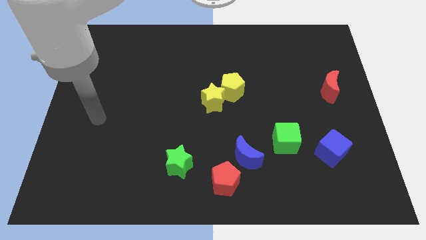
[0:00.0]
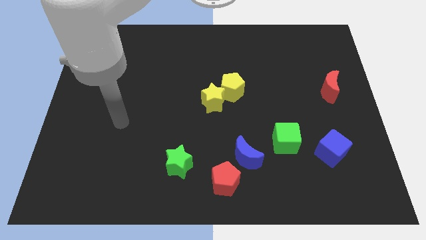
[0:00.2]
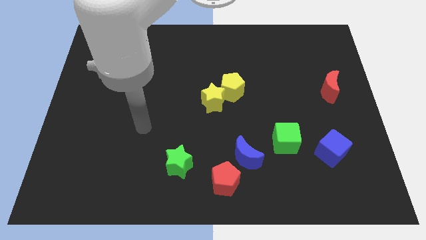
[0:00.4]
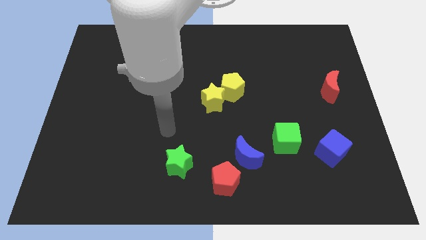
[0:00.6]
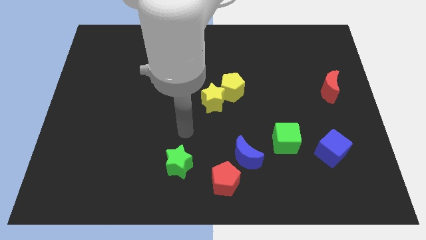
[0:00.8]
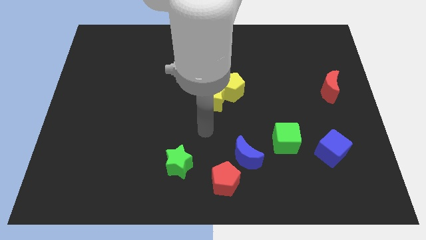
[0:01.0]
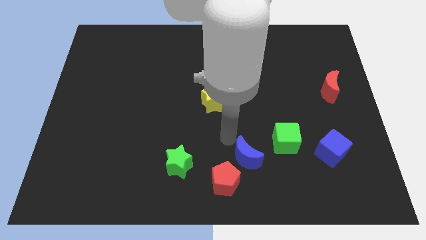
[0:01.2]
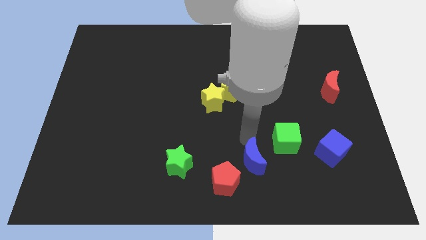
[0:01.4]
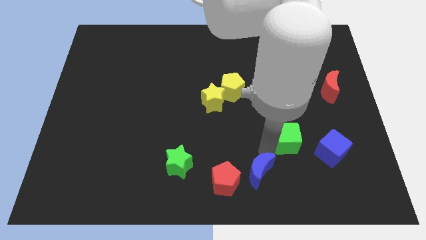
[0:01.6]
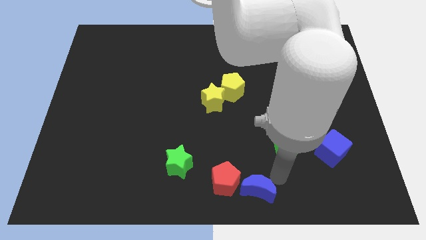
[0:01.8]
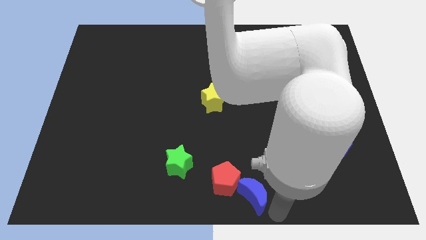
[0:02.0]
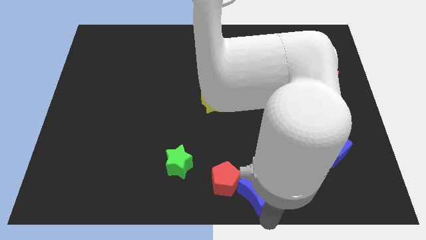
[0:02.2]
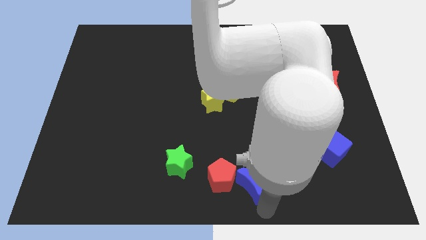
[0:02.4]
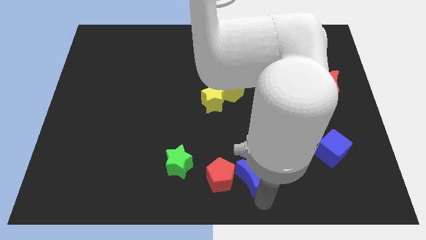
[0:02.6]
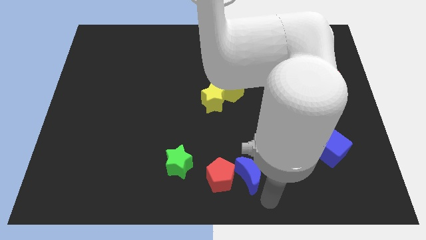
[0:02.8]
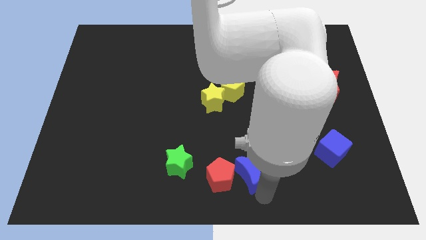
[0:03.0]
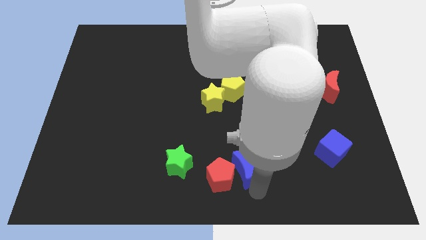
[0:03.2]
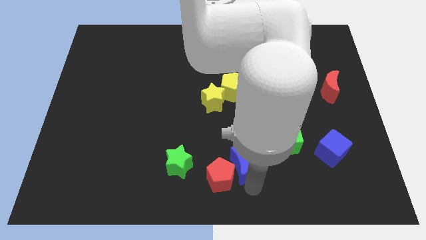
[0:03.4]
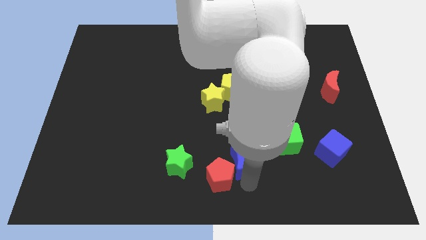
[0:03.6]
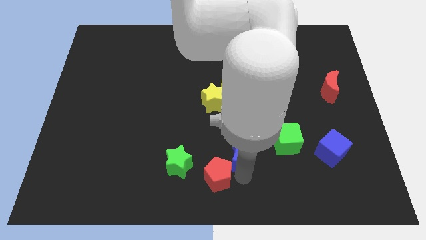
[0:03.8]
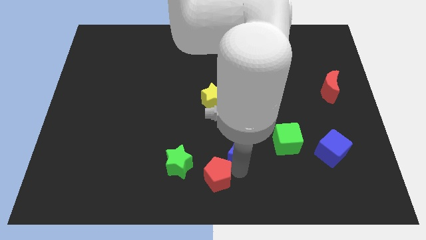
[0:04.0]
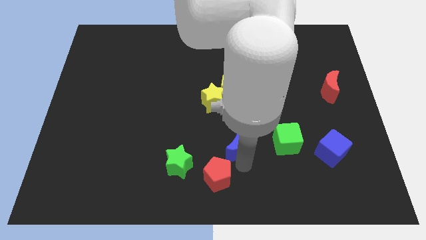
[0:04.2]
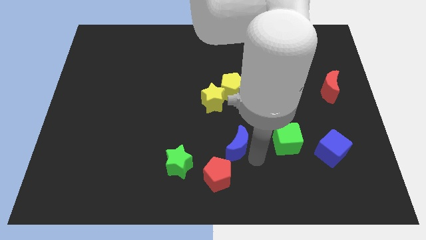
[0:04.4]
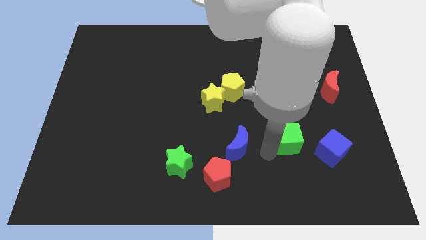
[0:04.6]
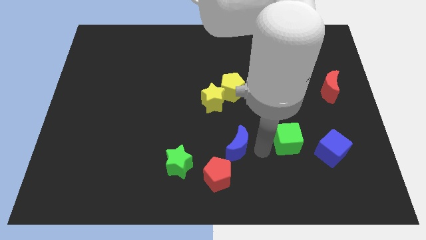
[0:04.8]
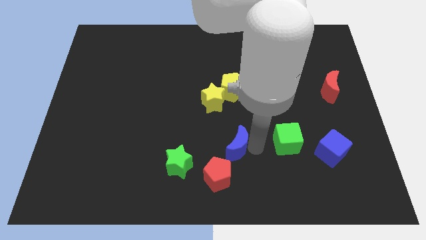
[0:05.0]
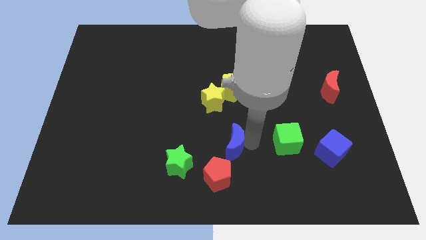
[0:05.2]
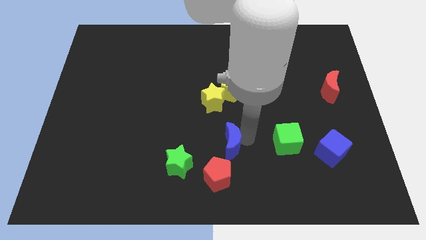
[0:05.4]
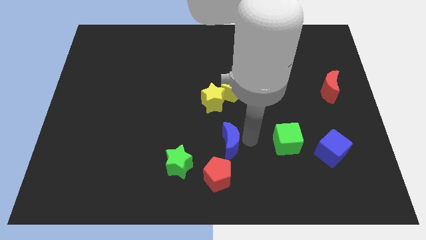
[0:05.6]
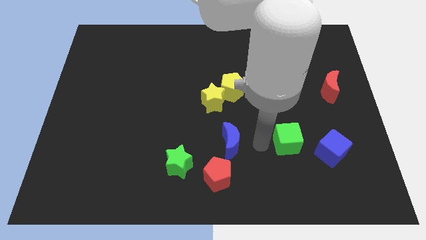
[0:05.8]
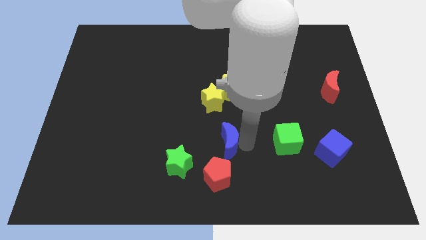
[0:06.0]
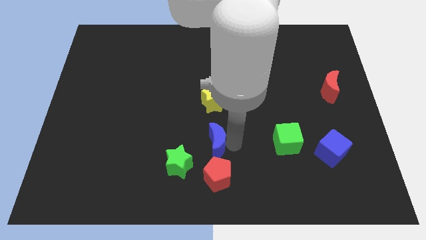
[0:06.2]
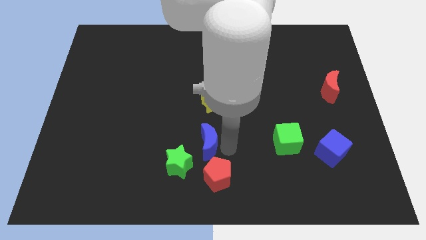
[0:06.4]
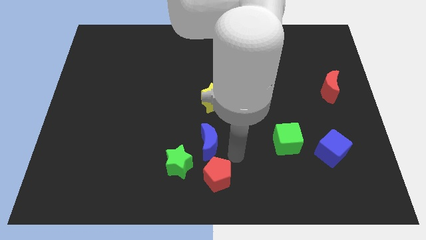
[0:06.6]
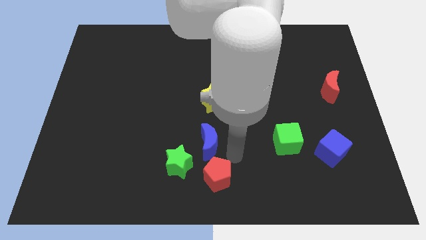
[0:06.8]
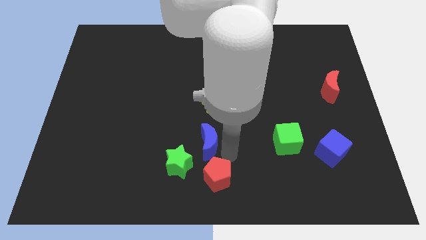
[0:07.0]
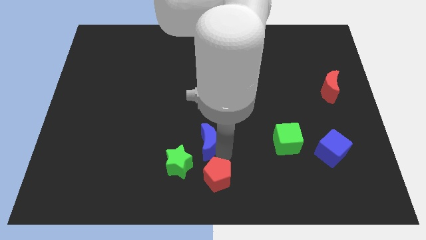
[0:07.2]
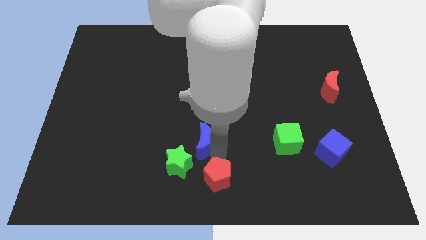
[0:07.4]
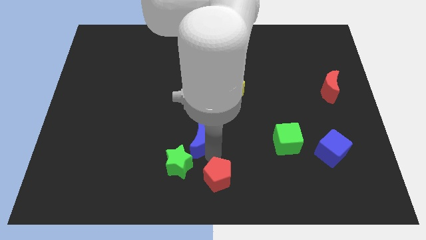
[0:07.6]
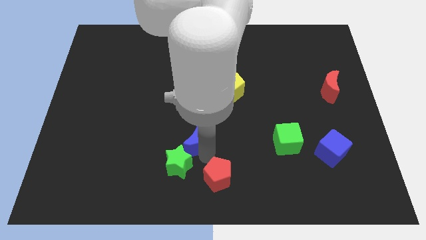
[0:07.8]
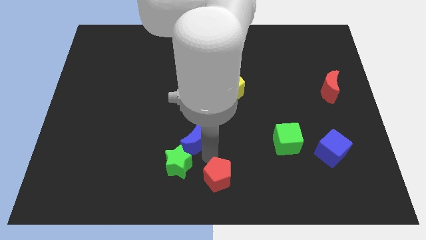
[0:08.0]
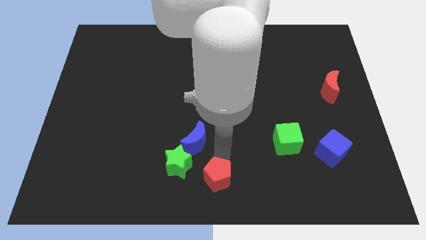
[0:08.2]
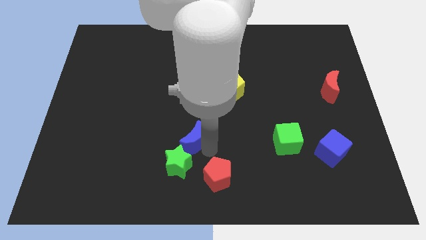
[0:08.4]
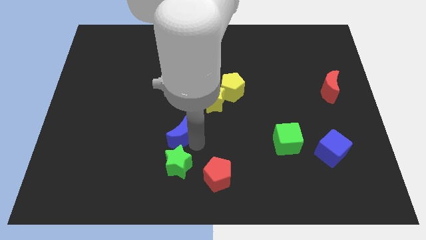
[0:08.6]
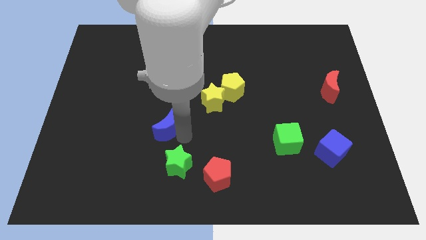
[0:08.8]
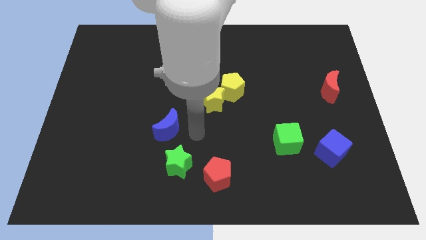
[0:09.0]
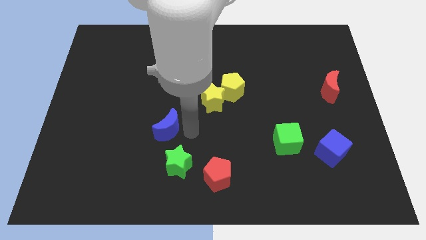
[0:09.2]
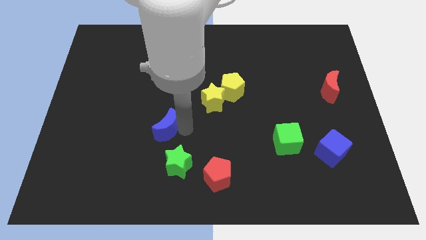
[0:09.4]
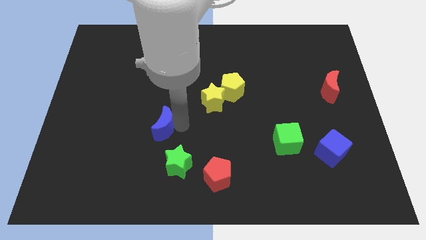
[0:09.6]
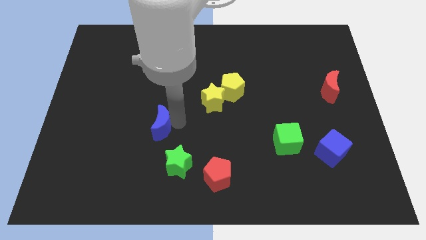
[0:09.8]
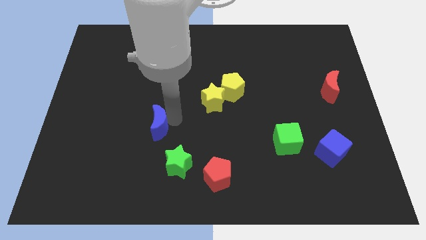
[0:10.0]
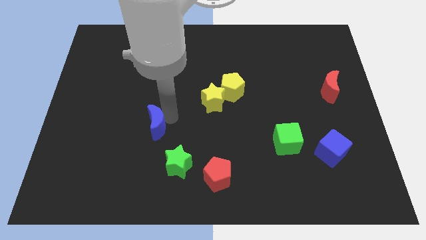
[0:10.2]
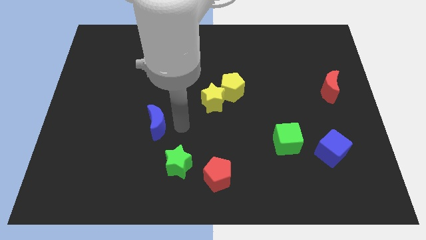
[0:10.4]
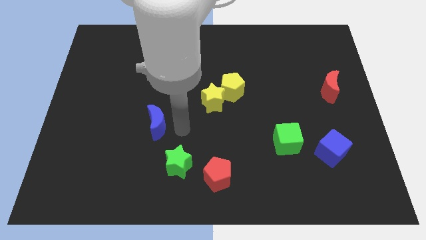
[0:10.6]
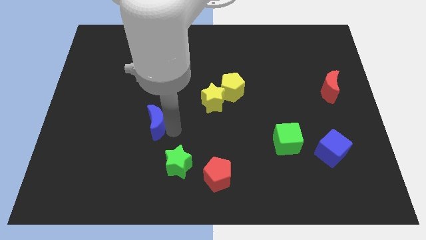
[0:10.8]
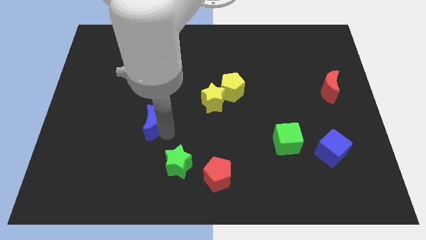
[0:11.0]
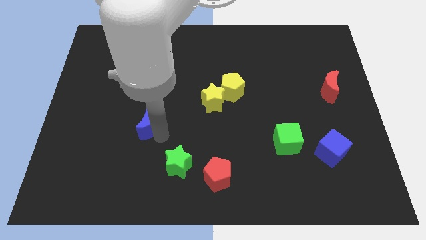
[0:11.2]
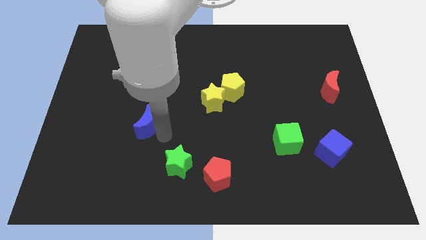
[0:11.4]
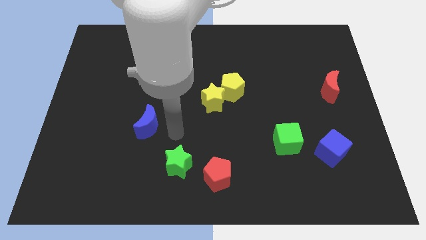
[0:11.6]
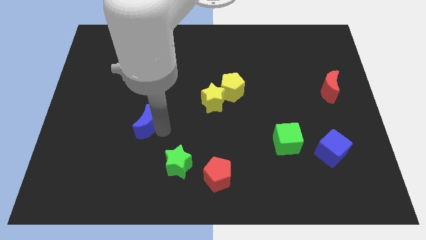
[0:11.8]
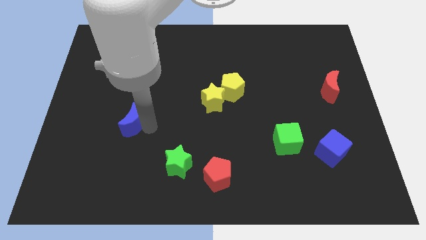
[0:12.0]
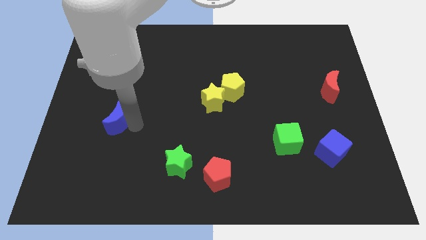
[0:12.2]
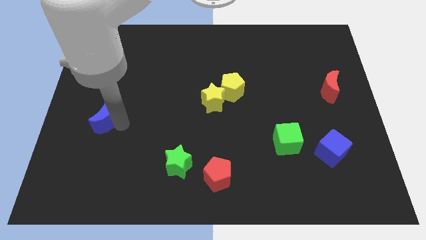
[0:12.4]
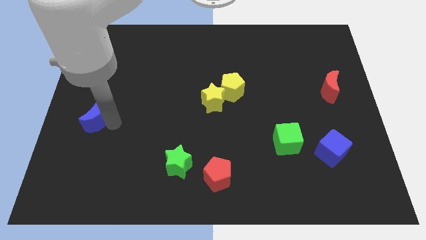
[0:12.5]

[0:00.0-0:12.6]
move the blue moon to the left side
